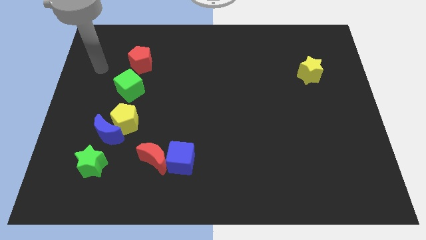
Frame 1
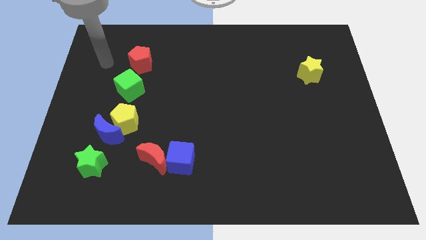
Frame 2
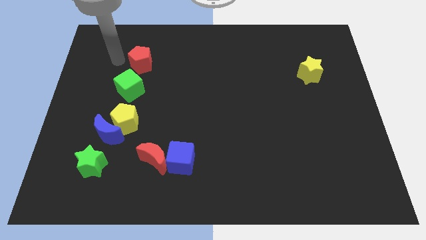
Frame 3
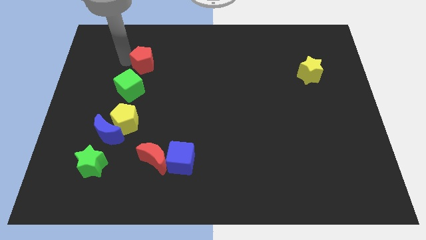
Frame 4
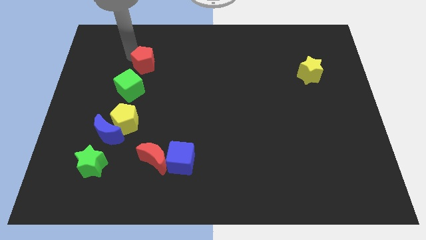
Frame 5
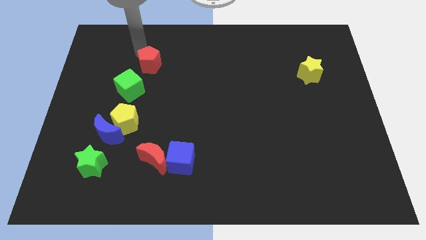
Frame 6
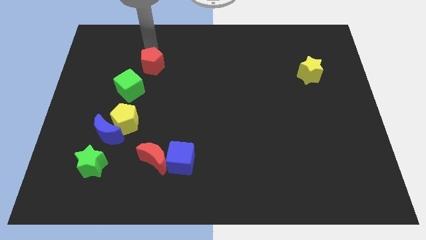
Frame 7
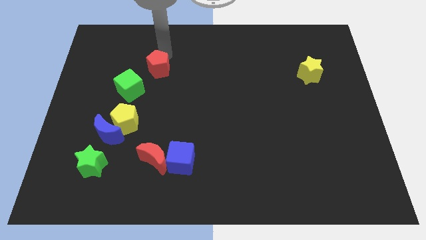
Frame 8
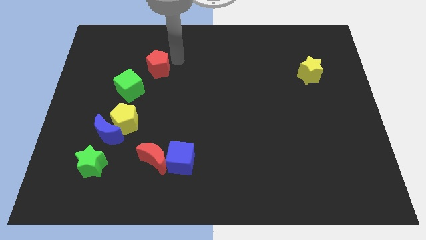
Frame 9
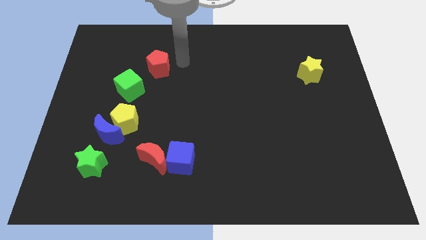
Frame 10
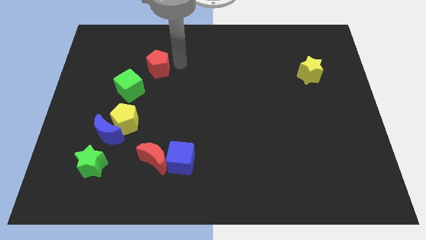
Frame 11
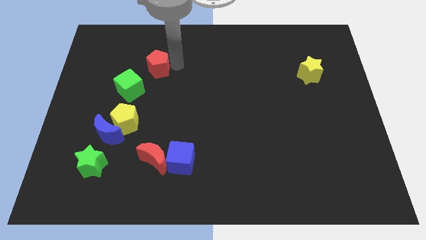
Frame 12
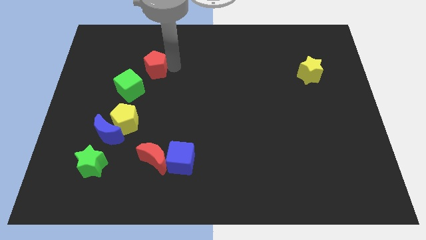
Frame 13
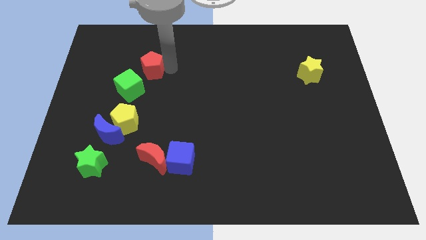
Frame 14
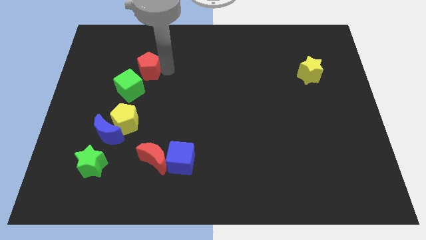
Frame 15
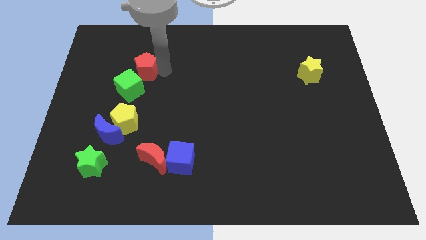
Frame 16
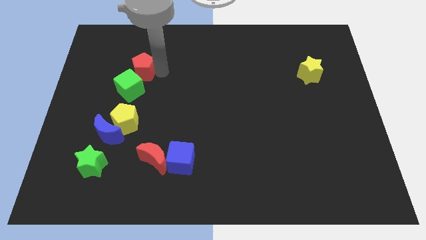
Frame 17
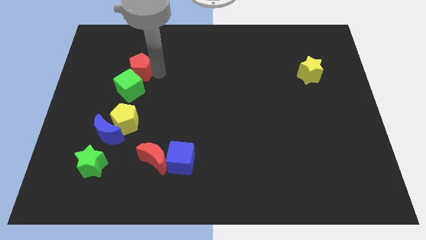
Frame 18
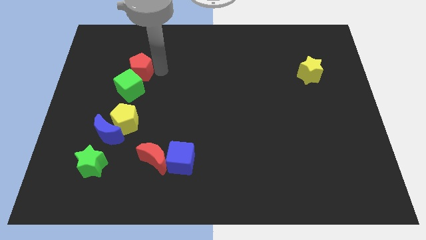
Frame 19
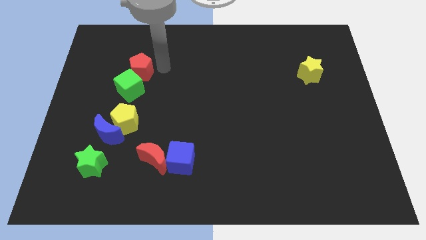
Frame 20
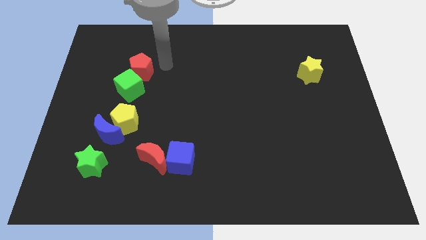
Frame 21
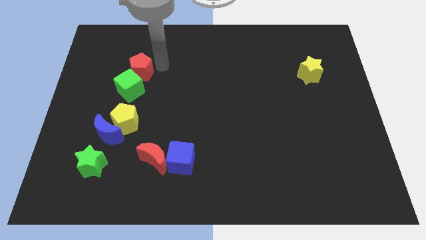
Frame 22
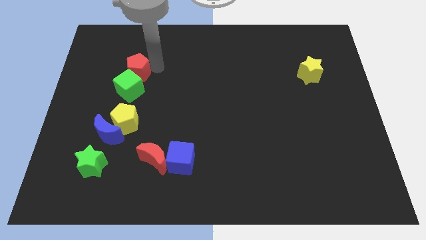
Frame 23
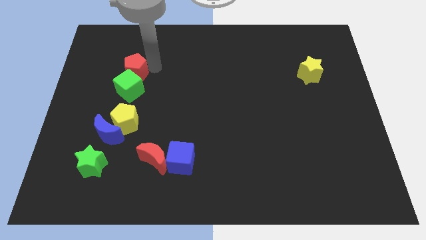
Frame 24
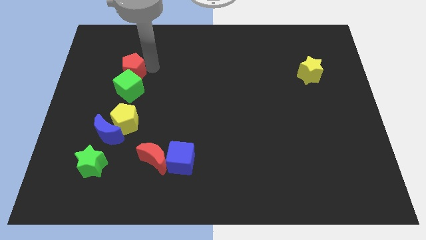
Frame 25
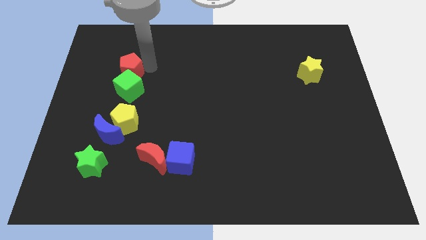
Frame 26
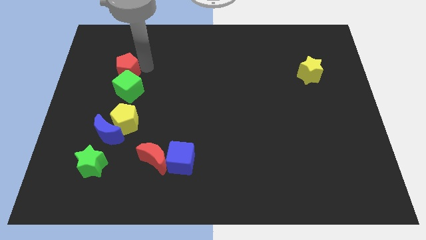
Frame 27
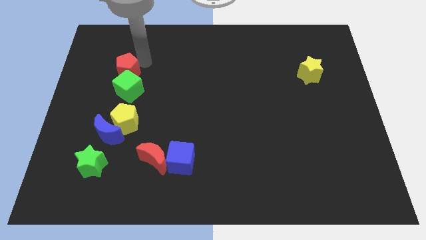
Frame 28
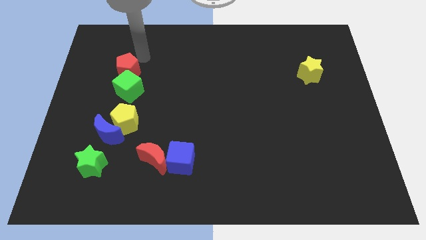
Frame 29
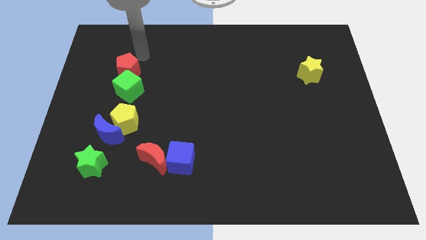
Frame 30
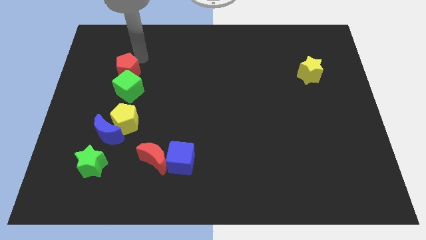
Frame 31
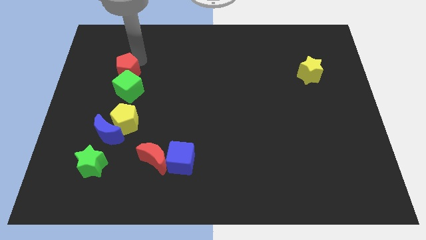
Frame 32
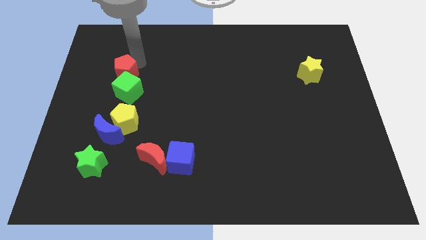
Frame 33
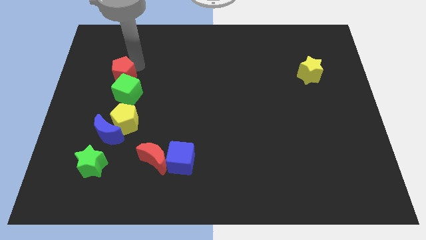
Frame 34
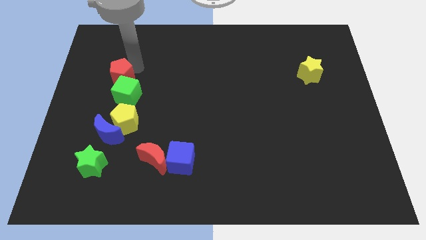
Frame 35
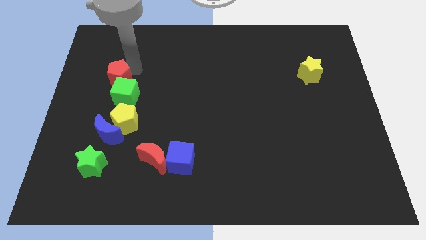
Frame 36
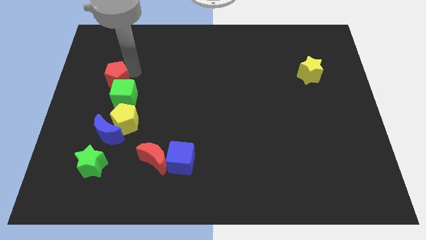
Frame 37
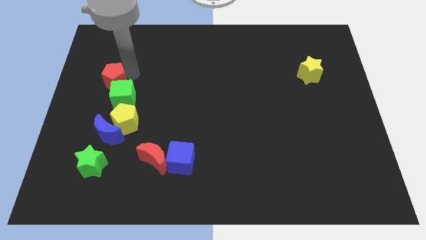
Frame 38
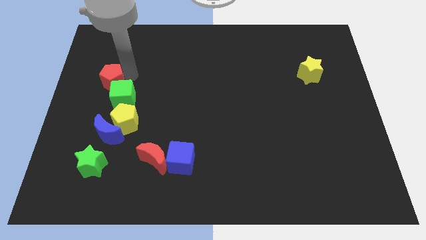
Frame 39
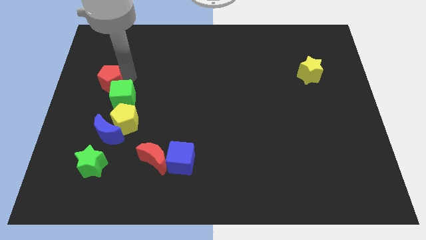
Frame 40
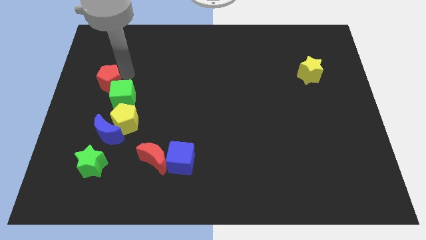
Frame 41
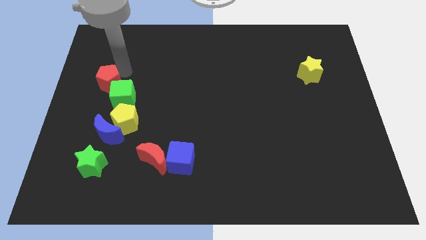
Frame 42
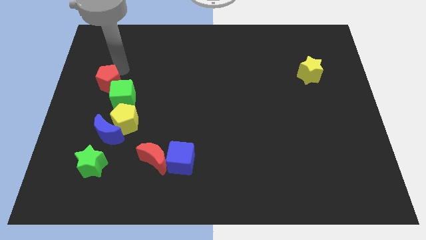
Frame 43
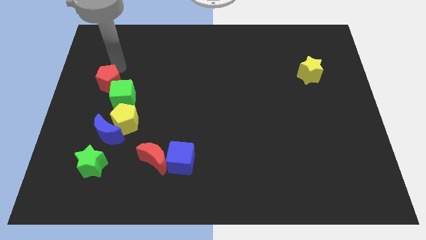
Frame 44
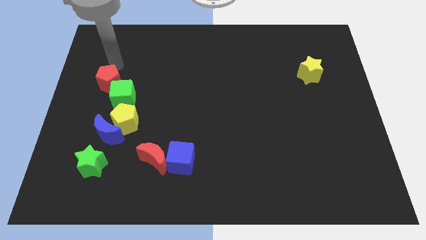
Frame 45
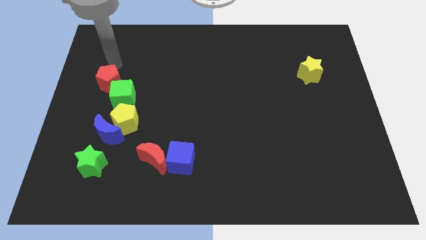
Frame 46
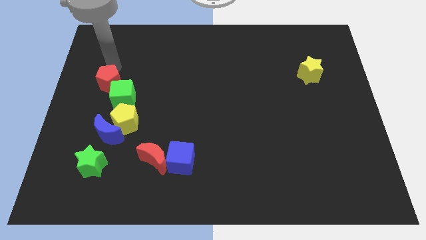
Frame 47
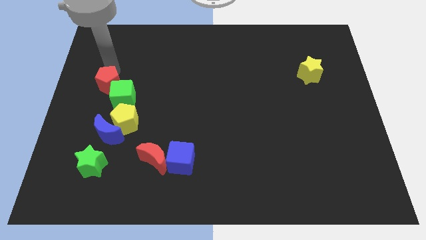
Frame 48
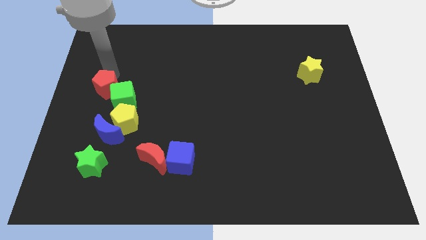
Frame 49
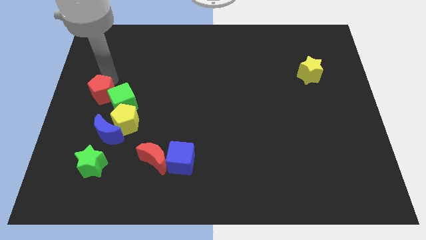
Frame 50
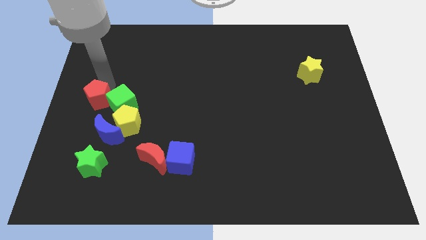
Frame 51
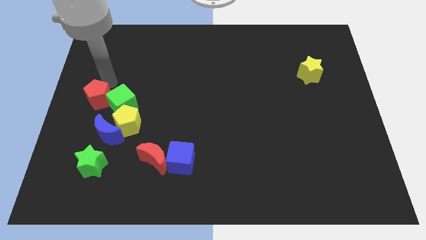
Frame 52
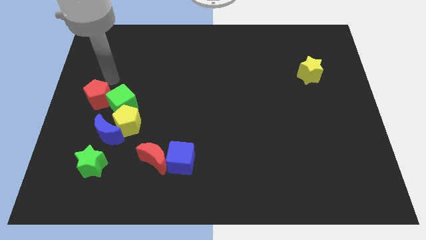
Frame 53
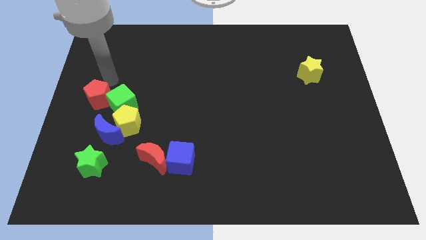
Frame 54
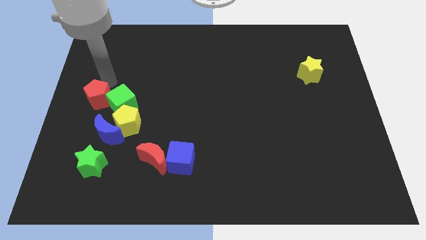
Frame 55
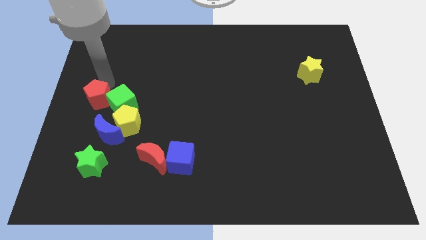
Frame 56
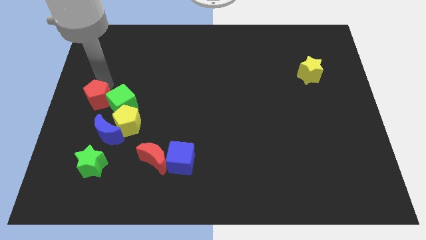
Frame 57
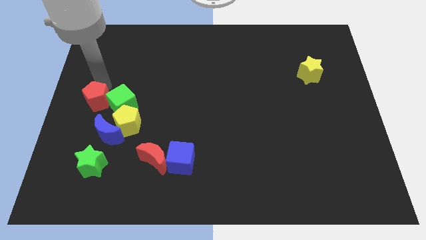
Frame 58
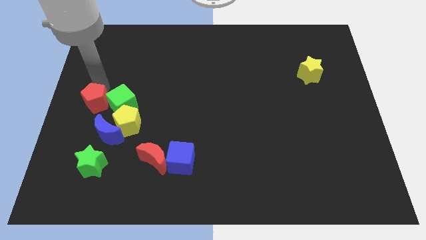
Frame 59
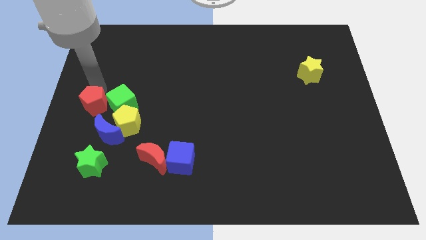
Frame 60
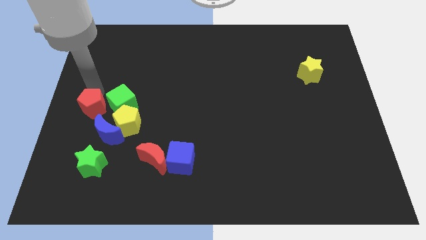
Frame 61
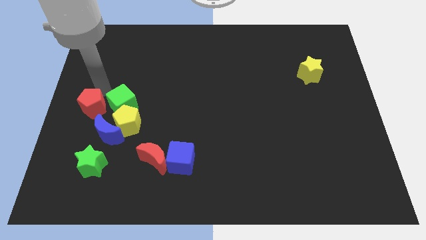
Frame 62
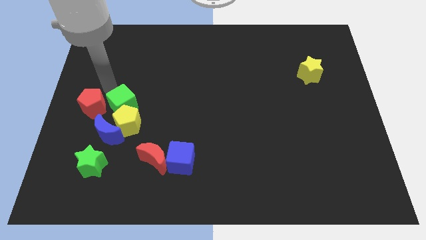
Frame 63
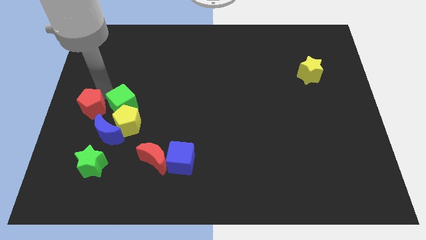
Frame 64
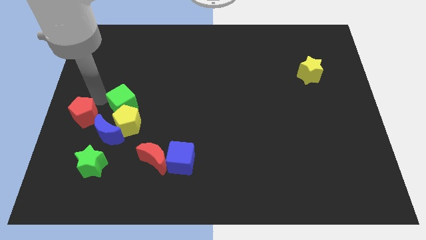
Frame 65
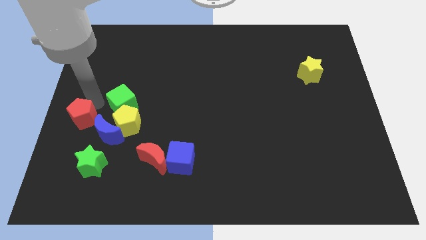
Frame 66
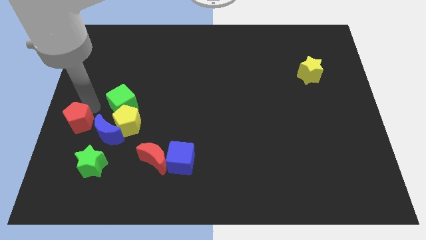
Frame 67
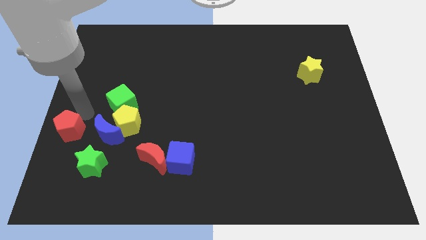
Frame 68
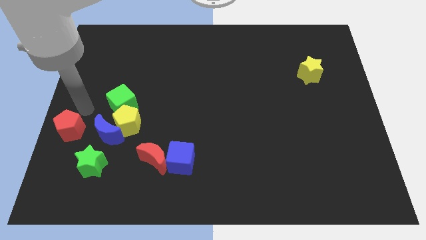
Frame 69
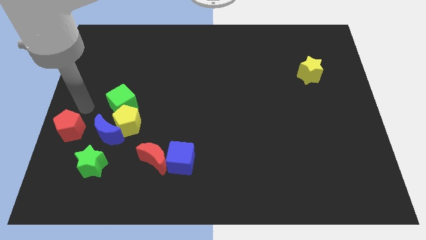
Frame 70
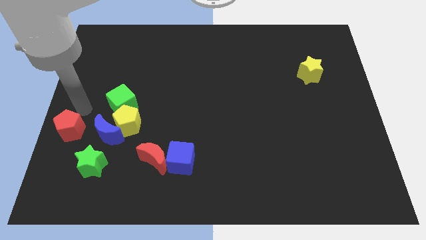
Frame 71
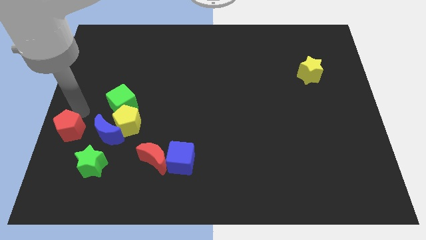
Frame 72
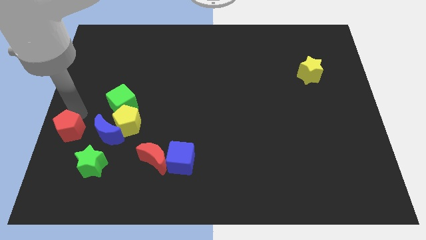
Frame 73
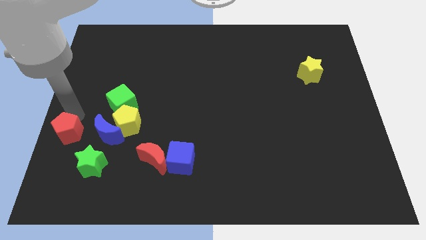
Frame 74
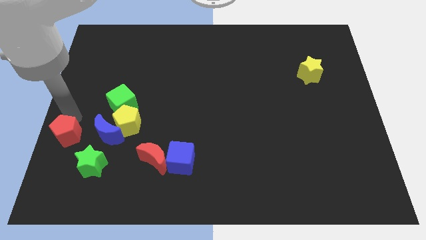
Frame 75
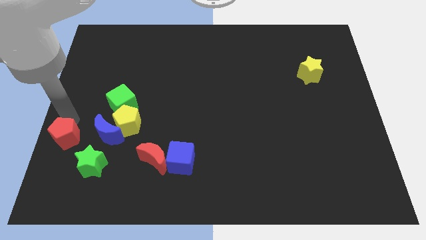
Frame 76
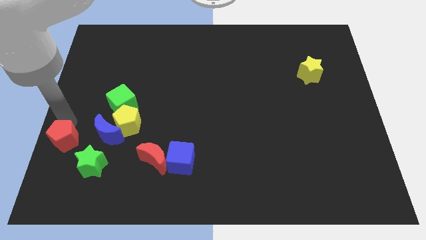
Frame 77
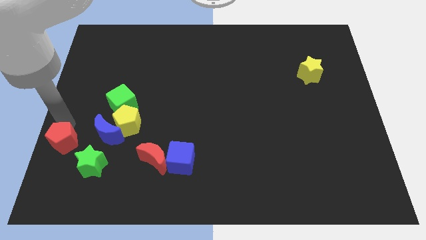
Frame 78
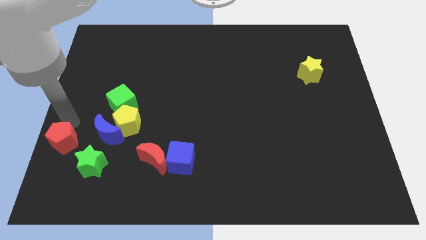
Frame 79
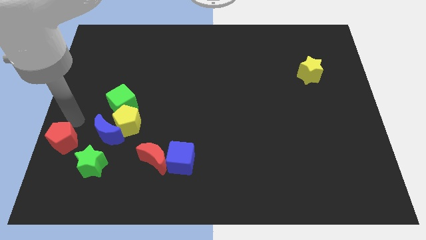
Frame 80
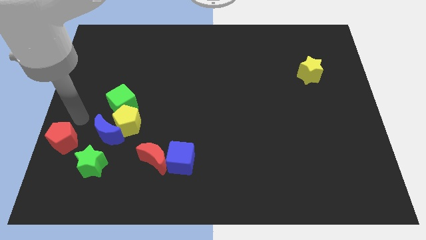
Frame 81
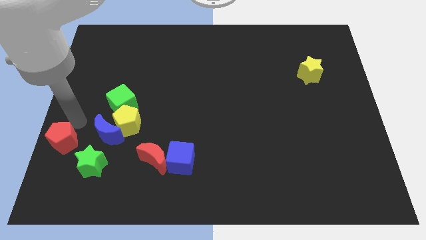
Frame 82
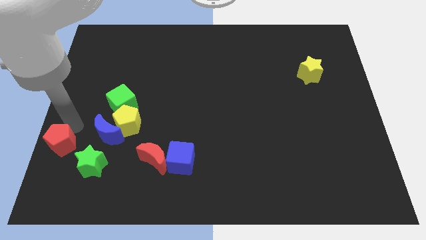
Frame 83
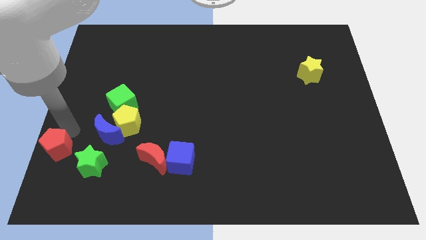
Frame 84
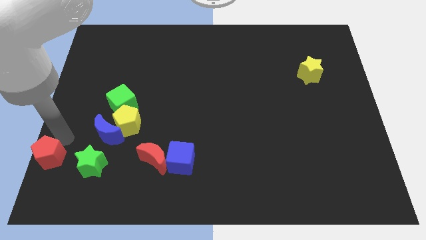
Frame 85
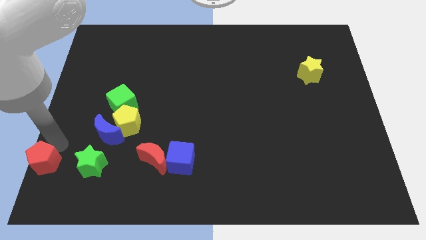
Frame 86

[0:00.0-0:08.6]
slide the red pentagon to the lower left corner
